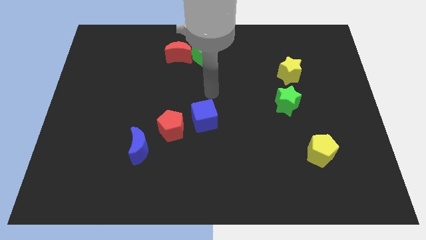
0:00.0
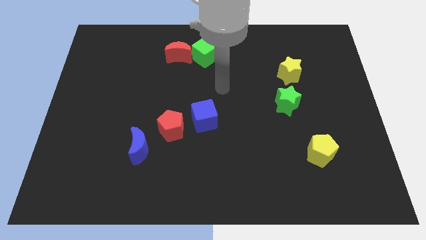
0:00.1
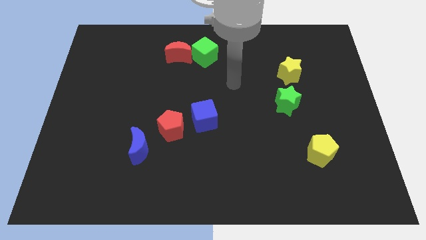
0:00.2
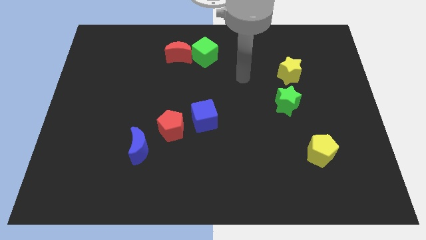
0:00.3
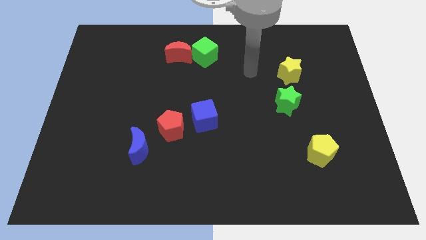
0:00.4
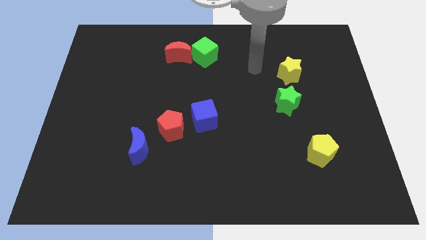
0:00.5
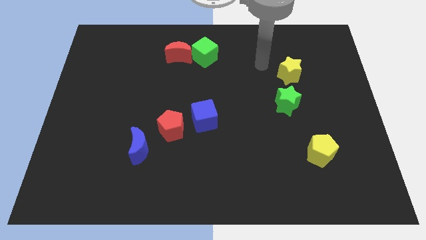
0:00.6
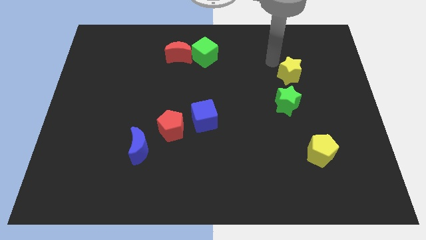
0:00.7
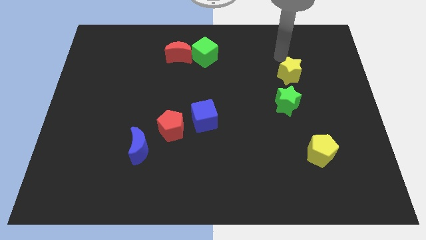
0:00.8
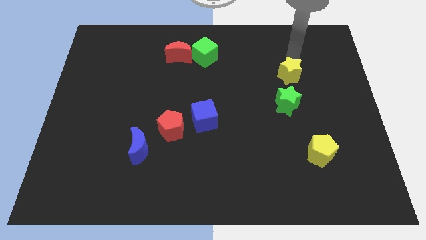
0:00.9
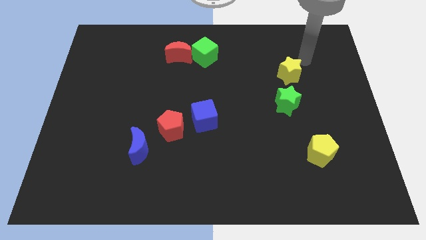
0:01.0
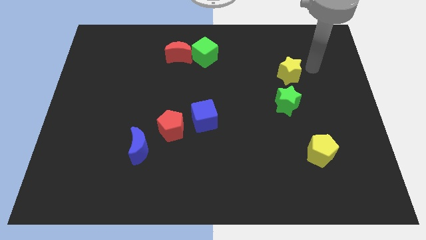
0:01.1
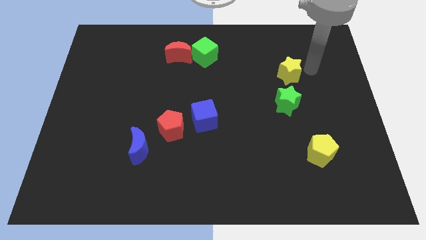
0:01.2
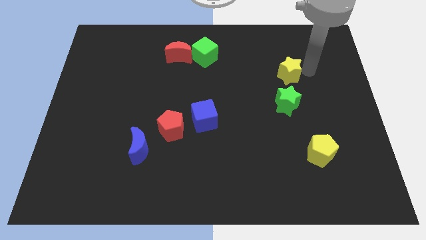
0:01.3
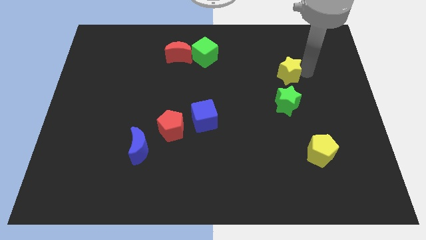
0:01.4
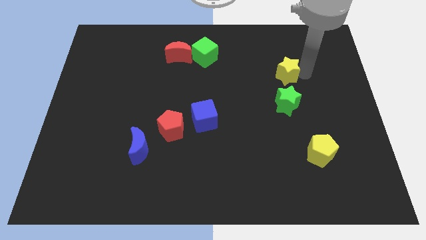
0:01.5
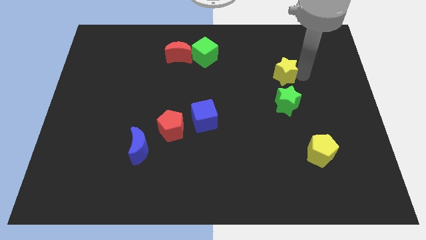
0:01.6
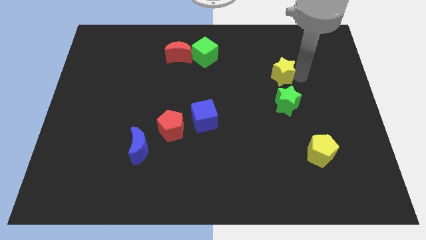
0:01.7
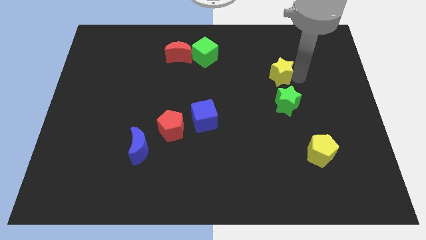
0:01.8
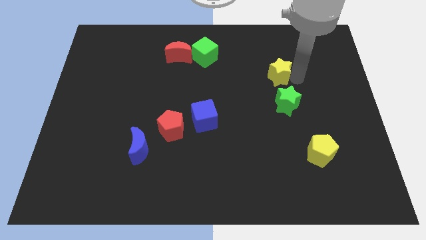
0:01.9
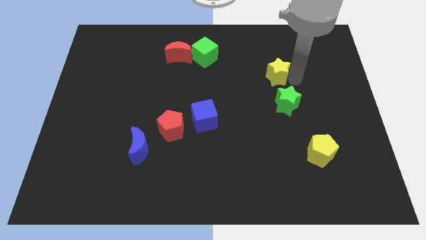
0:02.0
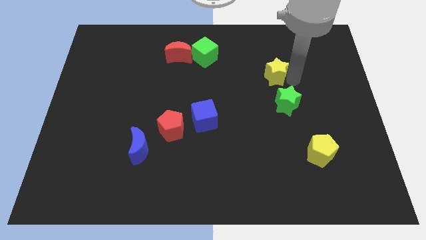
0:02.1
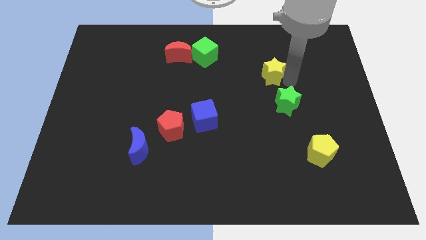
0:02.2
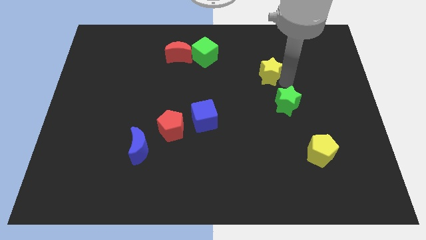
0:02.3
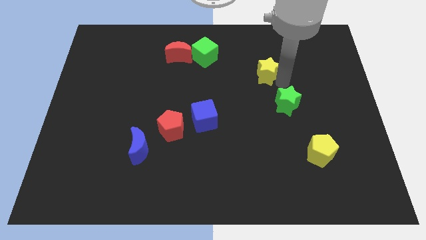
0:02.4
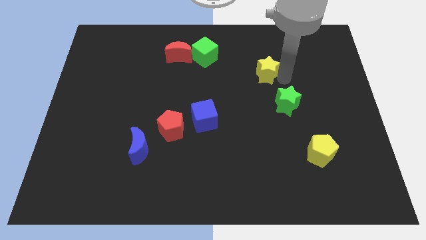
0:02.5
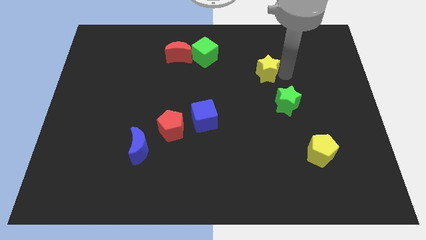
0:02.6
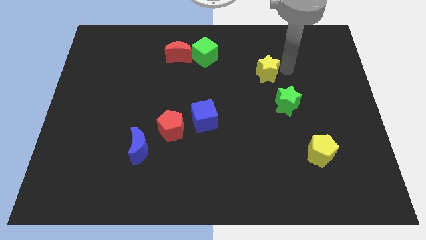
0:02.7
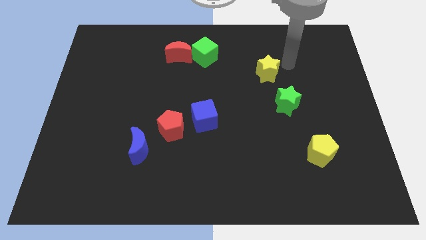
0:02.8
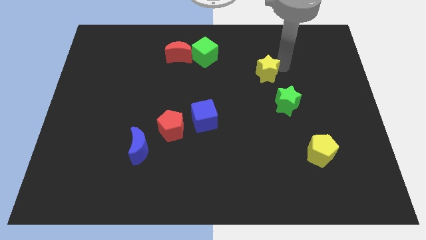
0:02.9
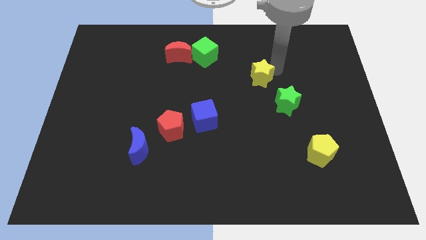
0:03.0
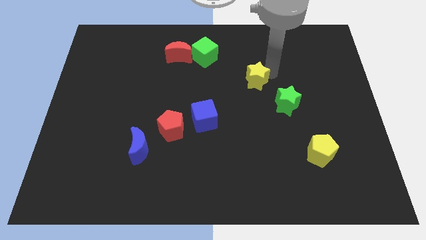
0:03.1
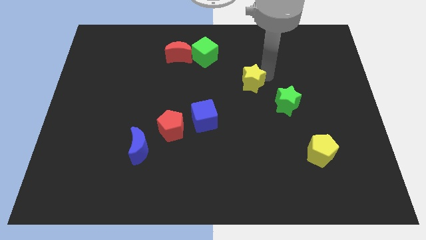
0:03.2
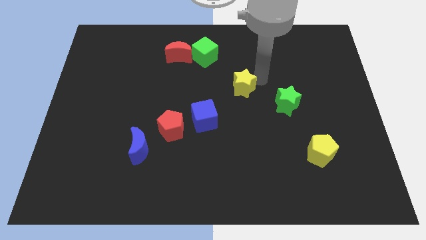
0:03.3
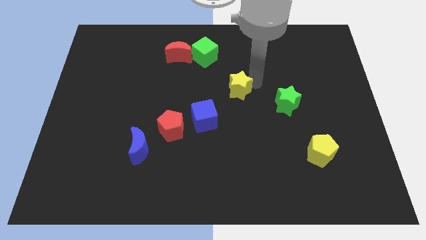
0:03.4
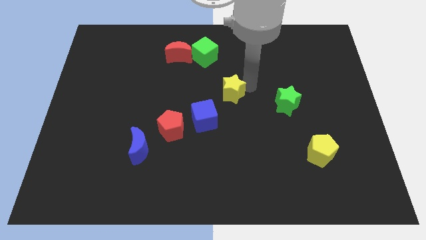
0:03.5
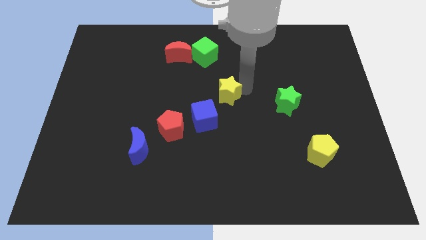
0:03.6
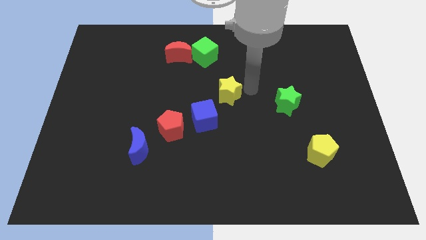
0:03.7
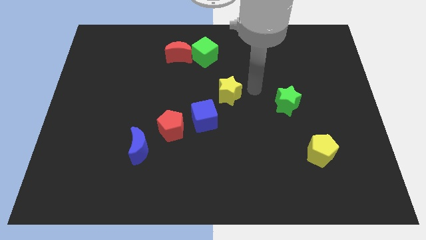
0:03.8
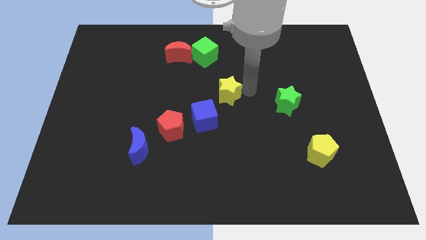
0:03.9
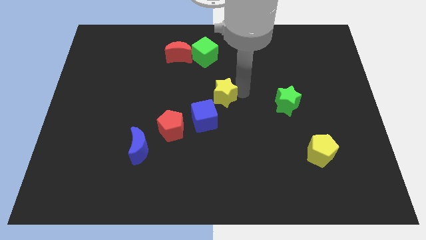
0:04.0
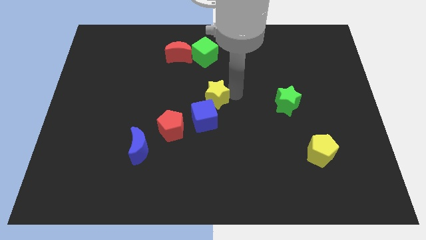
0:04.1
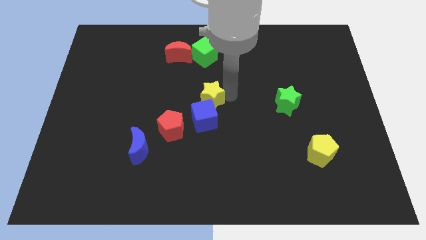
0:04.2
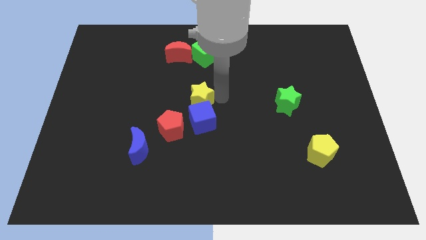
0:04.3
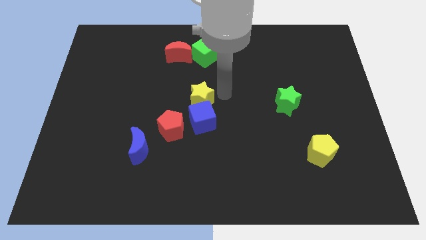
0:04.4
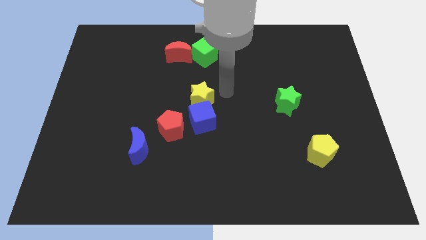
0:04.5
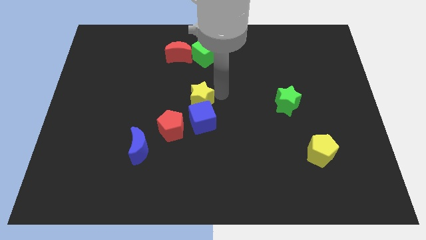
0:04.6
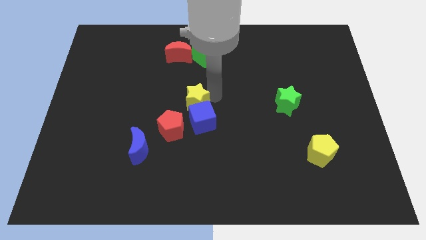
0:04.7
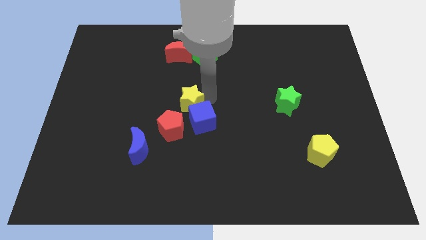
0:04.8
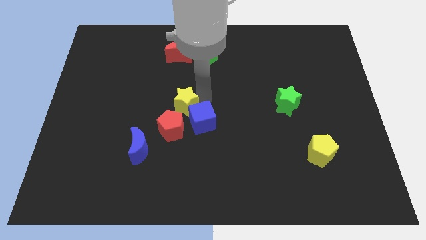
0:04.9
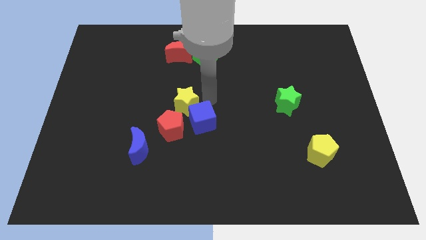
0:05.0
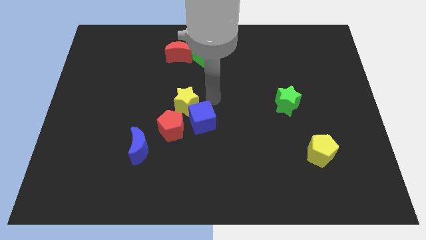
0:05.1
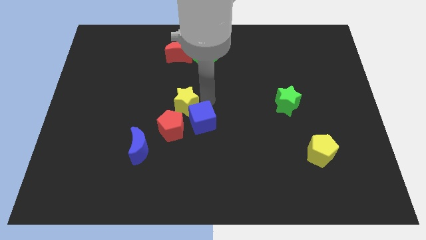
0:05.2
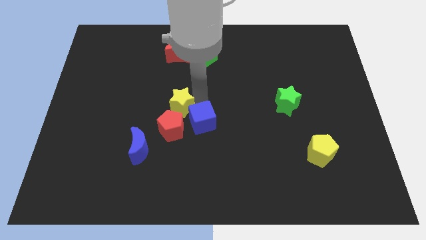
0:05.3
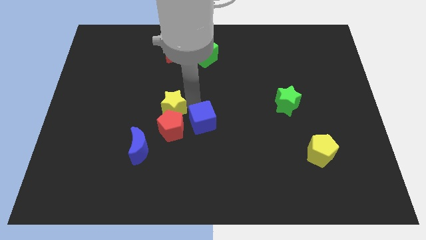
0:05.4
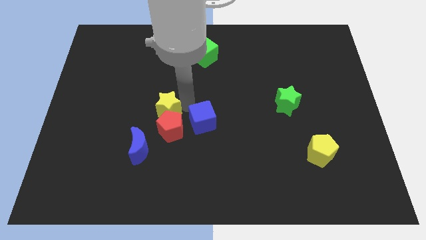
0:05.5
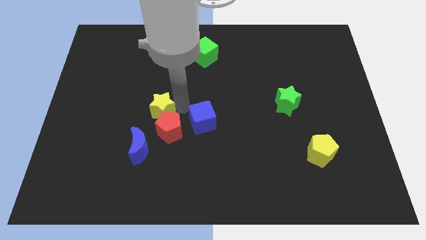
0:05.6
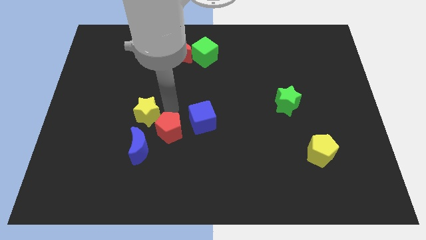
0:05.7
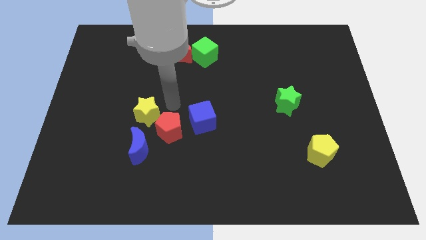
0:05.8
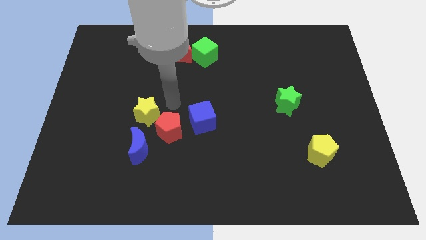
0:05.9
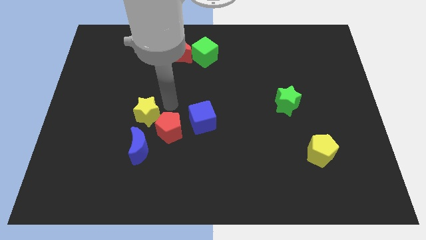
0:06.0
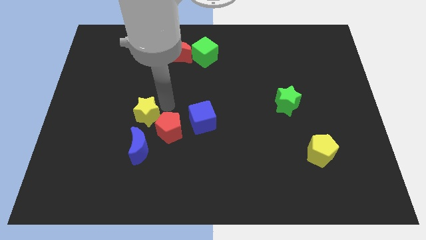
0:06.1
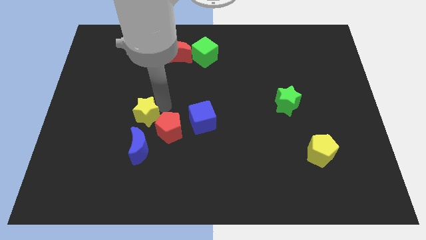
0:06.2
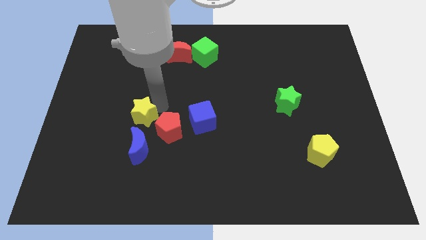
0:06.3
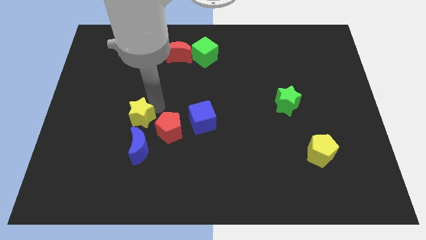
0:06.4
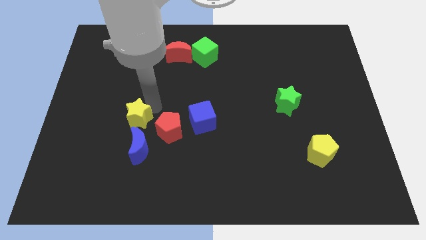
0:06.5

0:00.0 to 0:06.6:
put the yellow star to the top left of the blue moon
